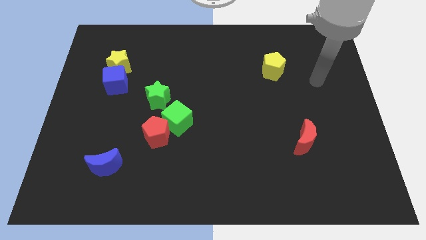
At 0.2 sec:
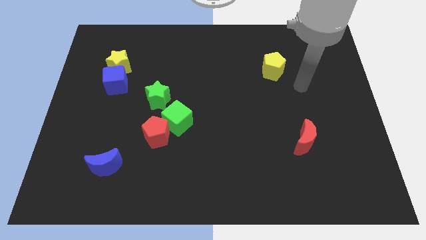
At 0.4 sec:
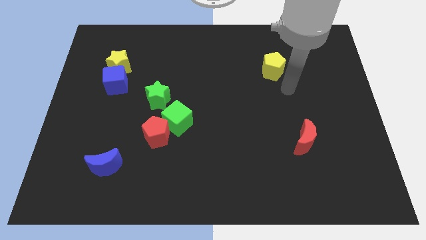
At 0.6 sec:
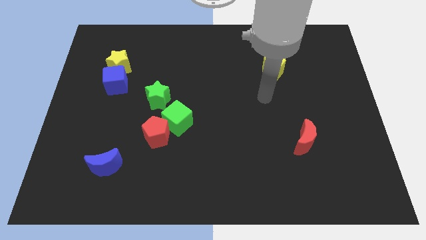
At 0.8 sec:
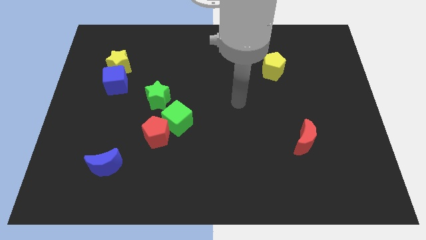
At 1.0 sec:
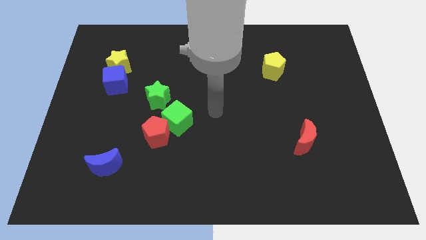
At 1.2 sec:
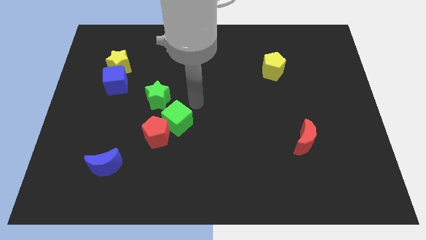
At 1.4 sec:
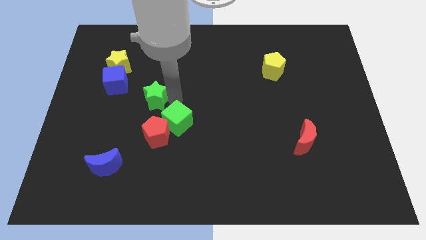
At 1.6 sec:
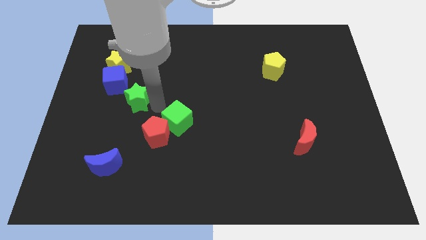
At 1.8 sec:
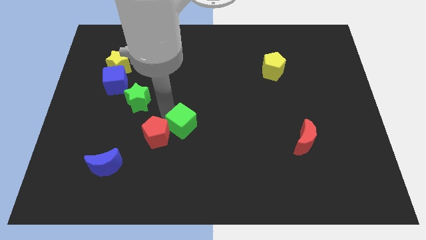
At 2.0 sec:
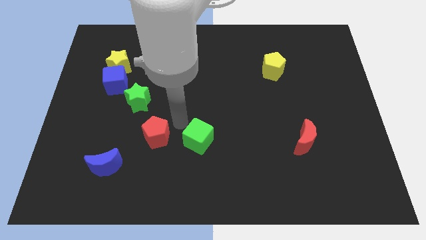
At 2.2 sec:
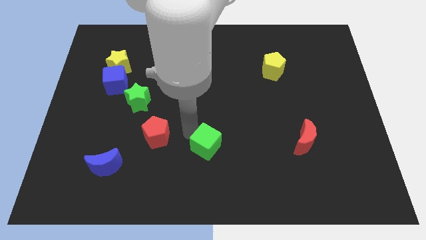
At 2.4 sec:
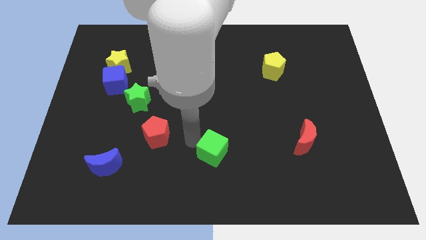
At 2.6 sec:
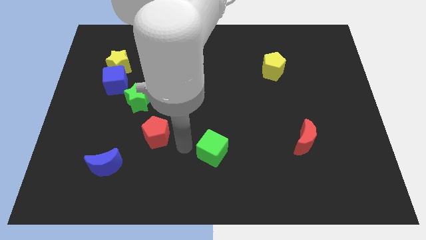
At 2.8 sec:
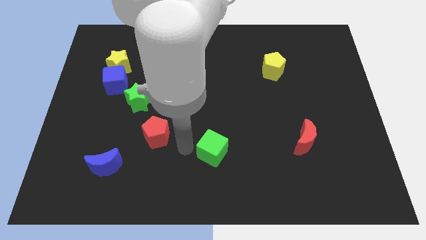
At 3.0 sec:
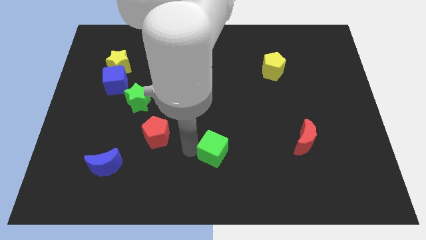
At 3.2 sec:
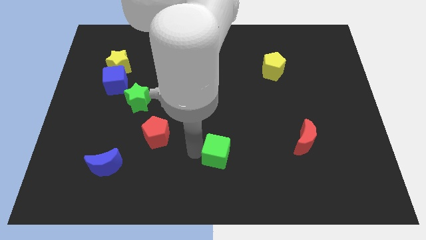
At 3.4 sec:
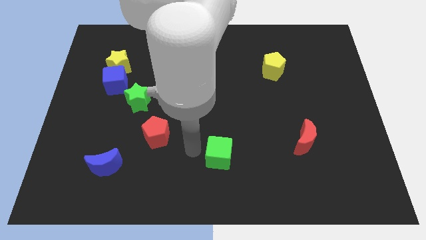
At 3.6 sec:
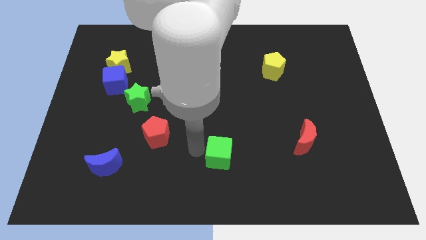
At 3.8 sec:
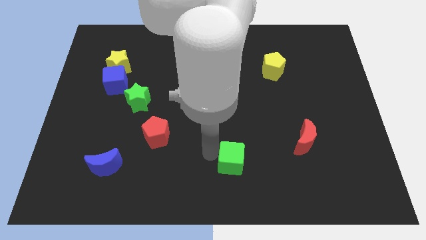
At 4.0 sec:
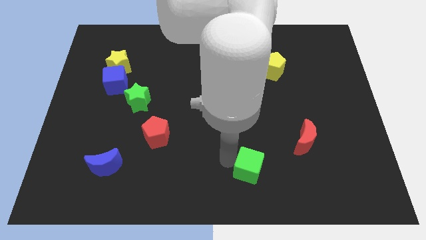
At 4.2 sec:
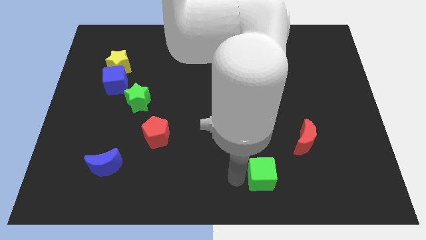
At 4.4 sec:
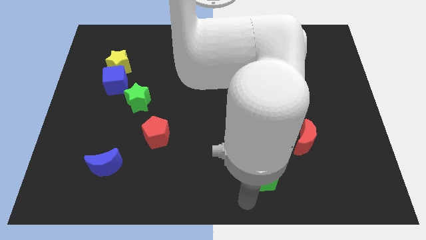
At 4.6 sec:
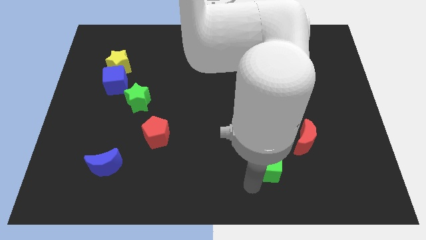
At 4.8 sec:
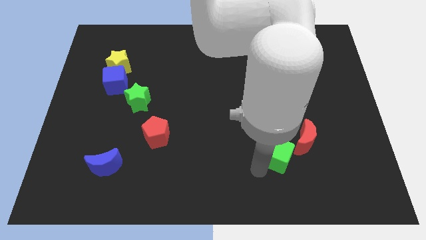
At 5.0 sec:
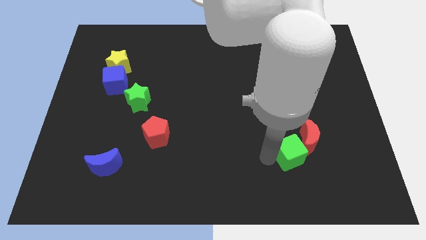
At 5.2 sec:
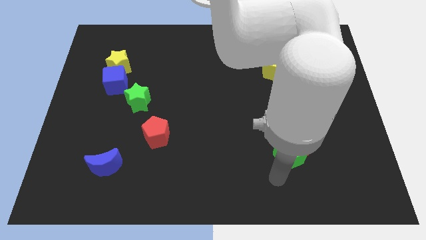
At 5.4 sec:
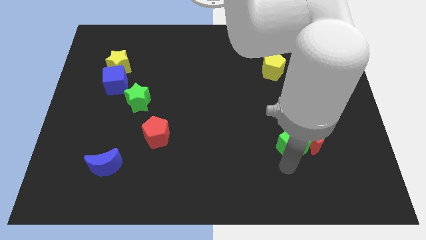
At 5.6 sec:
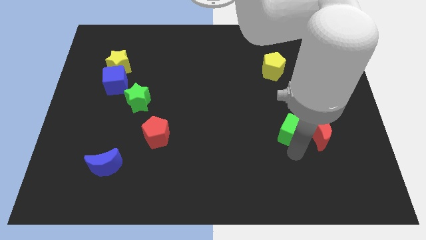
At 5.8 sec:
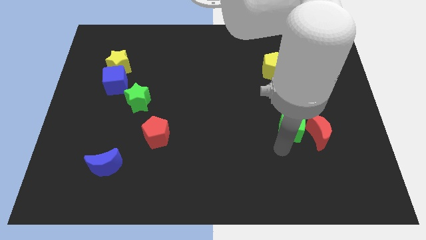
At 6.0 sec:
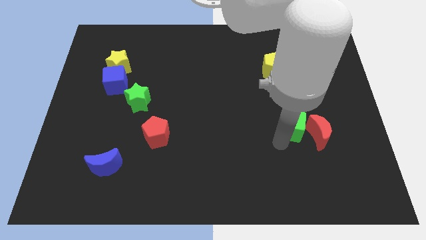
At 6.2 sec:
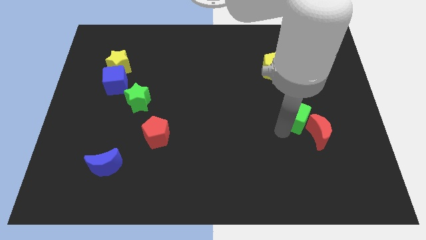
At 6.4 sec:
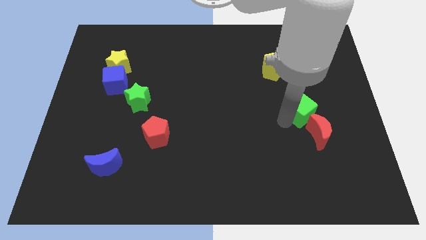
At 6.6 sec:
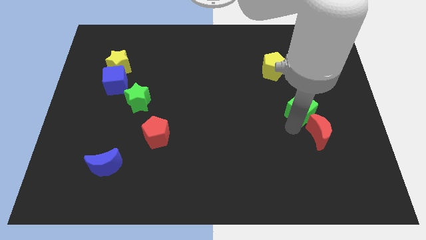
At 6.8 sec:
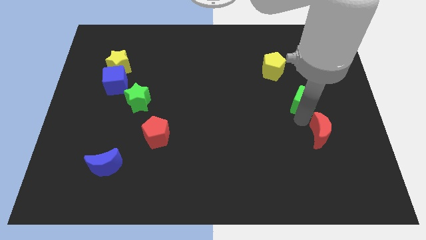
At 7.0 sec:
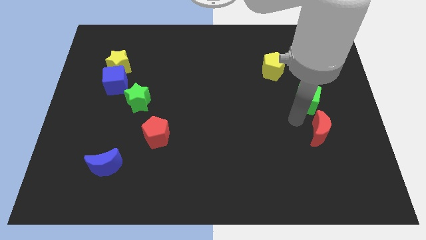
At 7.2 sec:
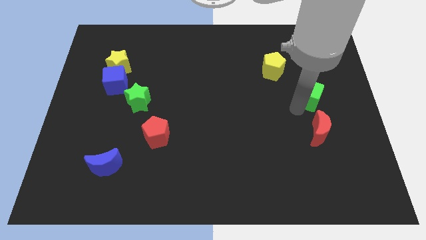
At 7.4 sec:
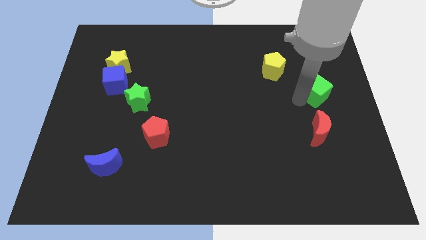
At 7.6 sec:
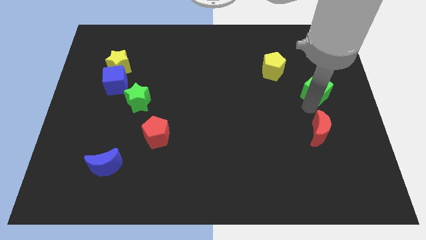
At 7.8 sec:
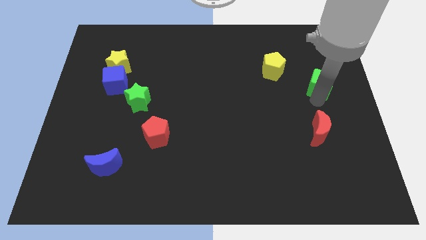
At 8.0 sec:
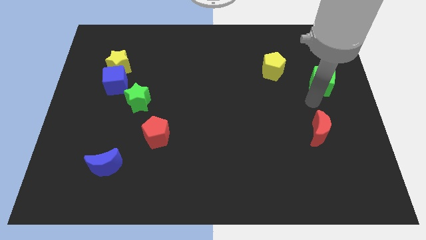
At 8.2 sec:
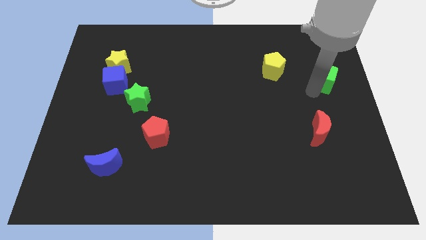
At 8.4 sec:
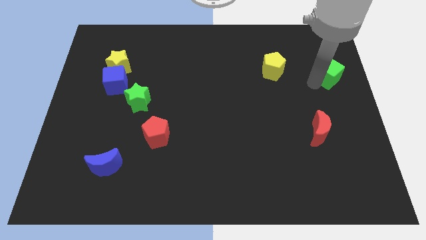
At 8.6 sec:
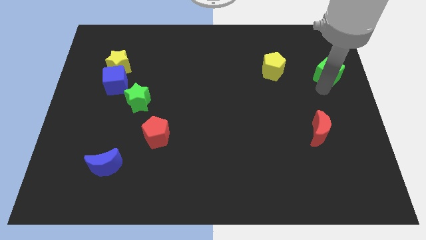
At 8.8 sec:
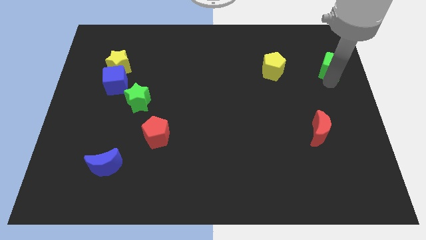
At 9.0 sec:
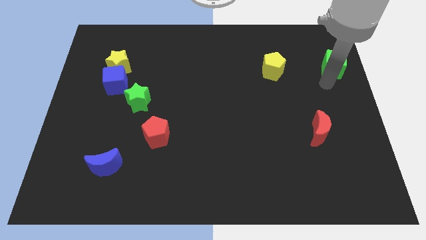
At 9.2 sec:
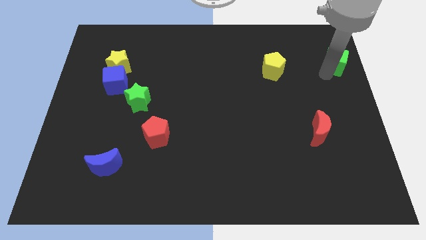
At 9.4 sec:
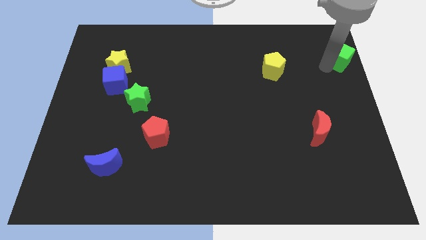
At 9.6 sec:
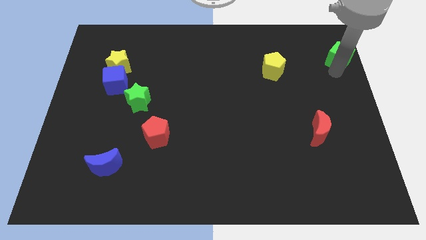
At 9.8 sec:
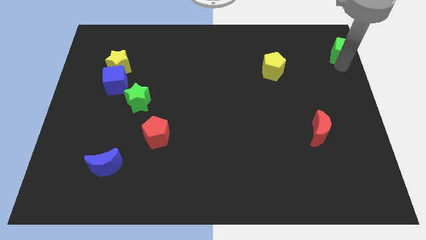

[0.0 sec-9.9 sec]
slide the green cube to the upper right corner

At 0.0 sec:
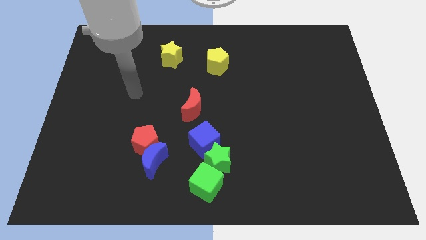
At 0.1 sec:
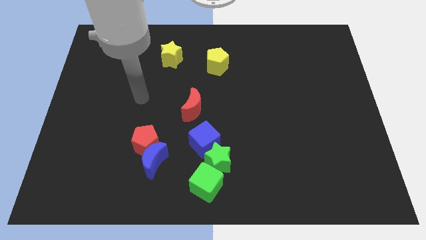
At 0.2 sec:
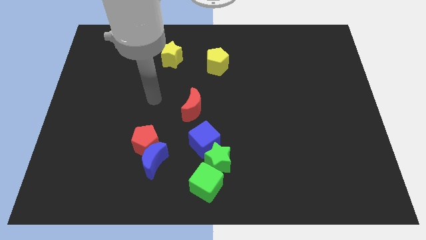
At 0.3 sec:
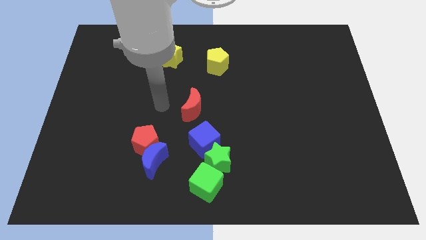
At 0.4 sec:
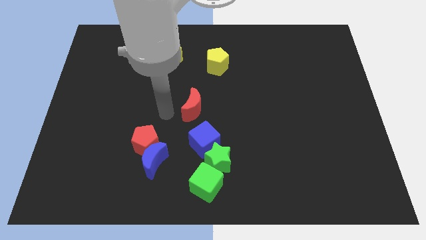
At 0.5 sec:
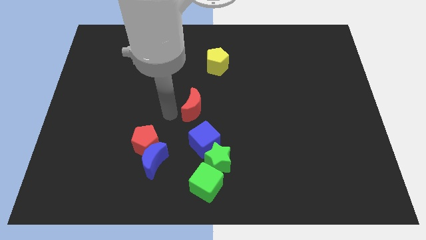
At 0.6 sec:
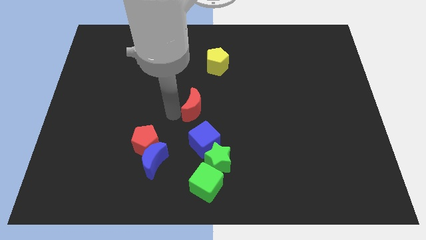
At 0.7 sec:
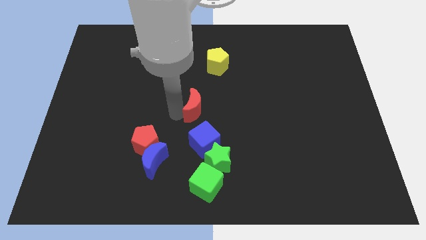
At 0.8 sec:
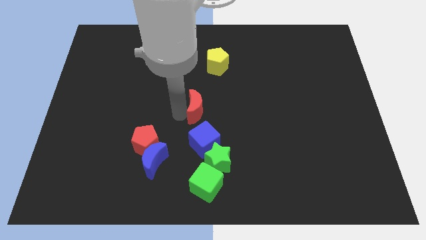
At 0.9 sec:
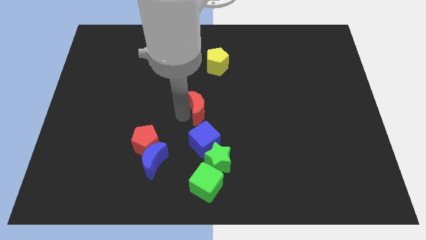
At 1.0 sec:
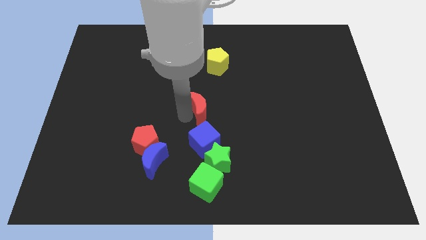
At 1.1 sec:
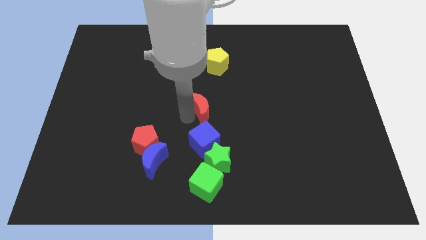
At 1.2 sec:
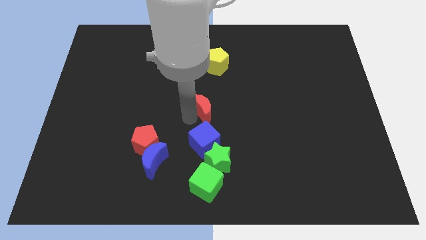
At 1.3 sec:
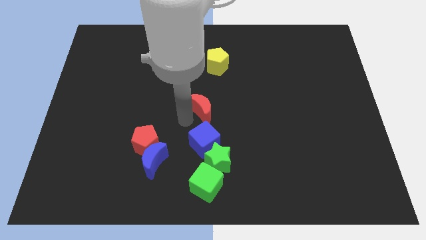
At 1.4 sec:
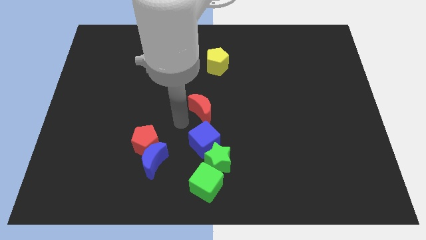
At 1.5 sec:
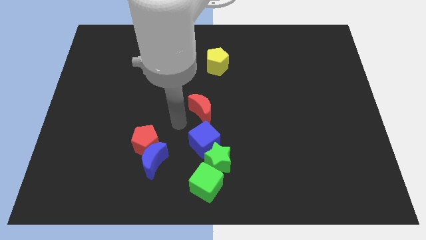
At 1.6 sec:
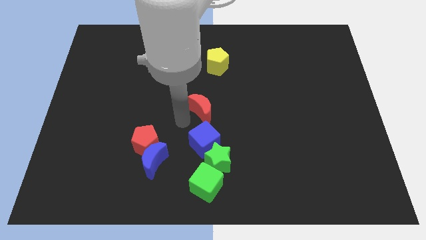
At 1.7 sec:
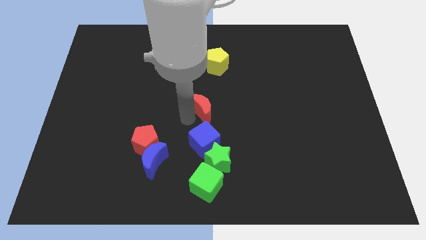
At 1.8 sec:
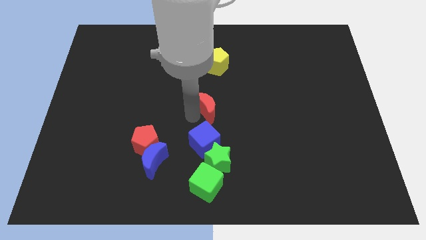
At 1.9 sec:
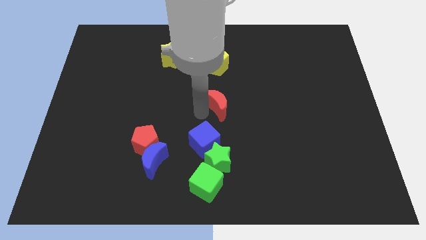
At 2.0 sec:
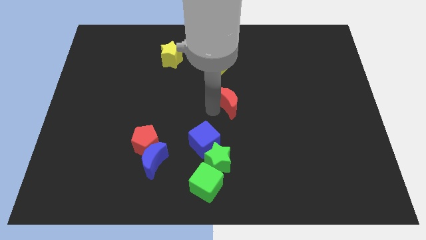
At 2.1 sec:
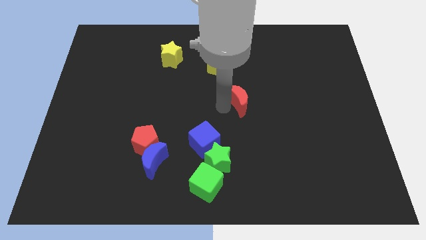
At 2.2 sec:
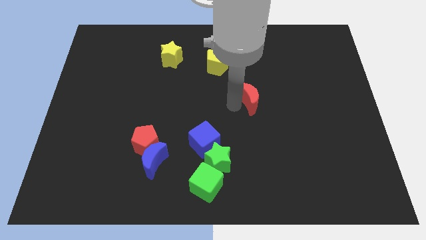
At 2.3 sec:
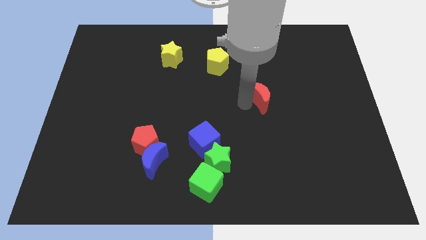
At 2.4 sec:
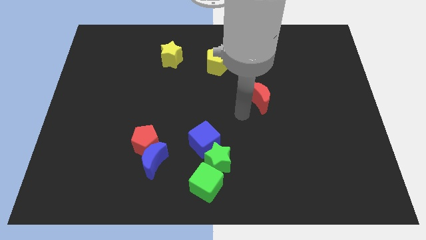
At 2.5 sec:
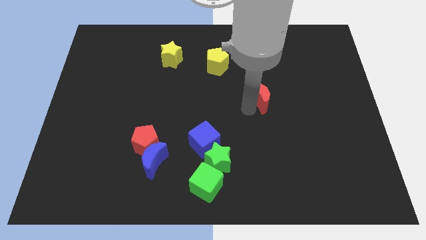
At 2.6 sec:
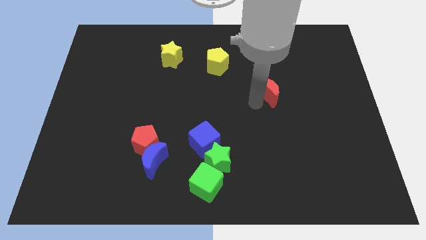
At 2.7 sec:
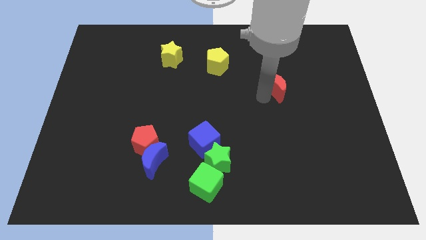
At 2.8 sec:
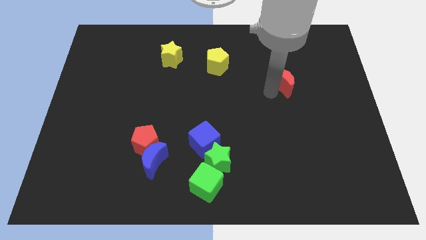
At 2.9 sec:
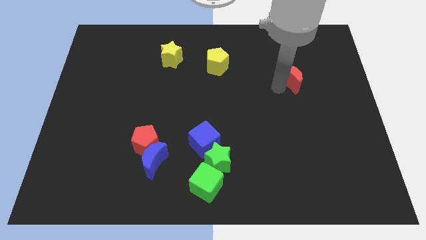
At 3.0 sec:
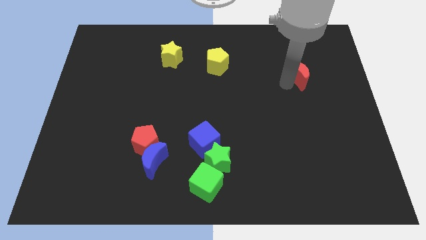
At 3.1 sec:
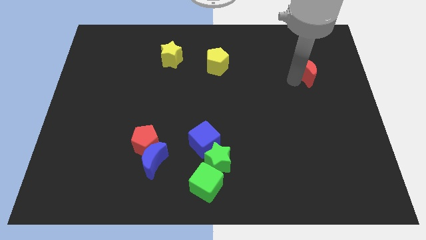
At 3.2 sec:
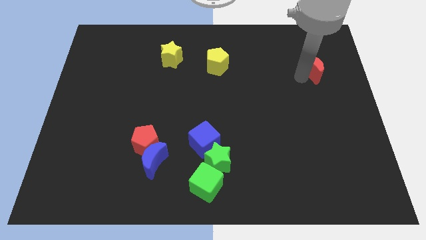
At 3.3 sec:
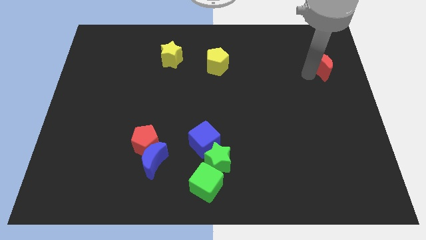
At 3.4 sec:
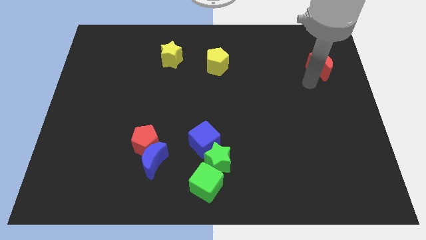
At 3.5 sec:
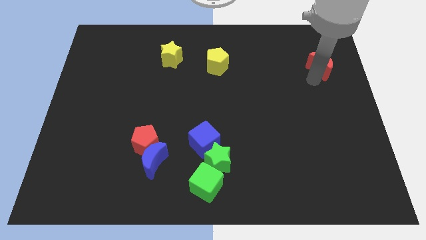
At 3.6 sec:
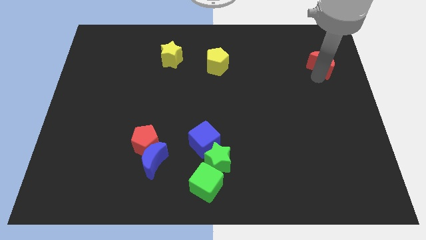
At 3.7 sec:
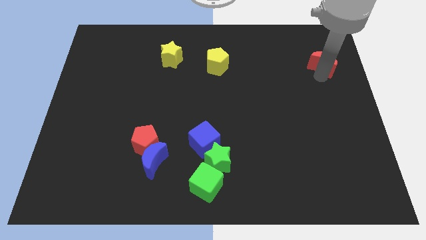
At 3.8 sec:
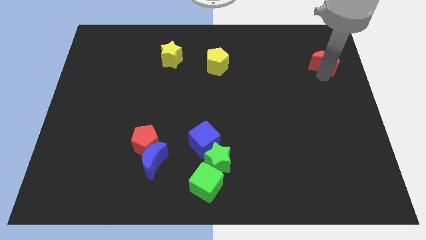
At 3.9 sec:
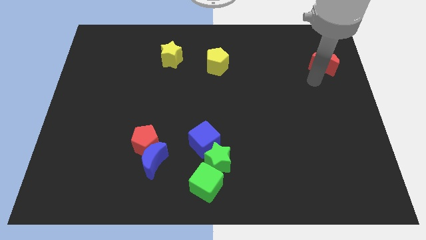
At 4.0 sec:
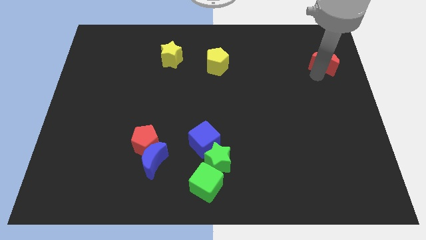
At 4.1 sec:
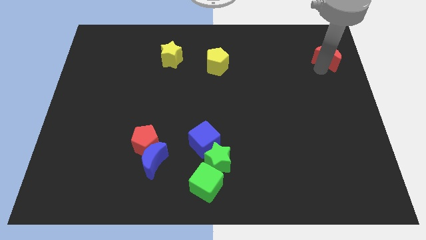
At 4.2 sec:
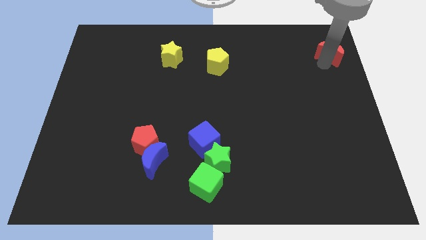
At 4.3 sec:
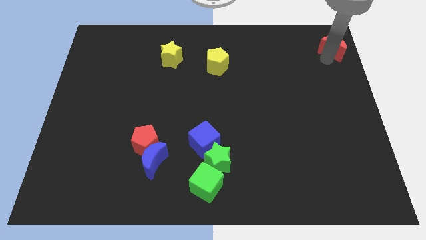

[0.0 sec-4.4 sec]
put the red moon to the top right of the board
